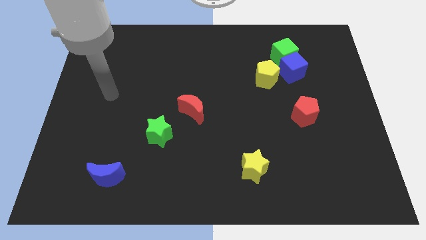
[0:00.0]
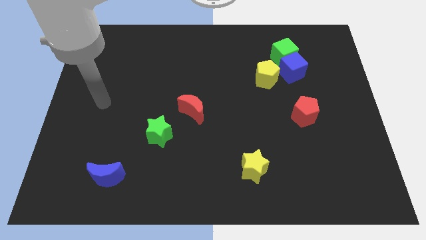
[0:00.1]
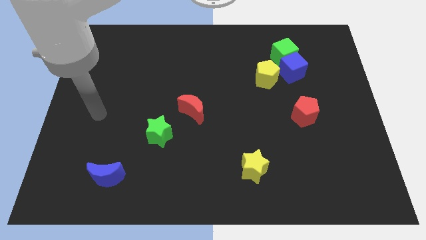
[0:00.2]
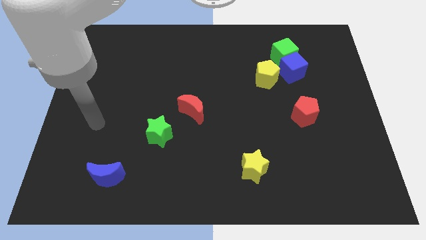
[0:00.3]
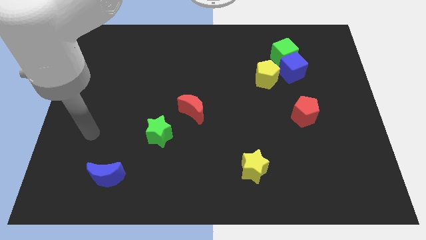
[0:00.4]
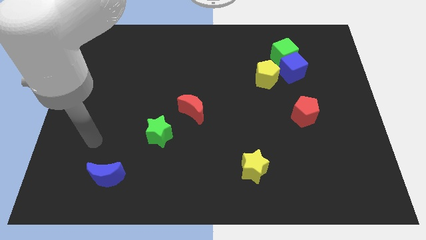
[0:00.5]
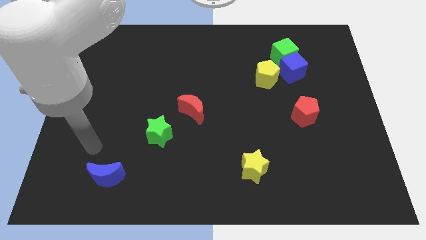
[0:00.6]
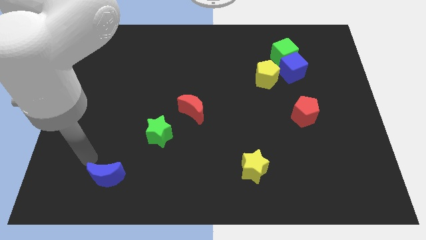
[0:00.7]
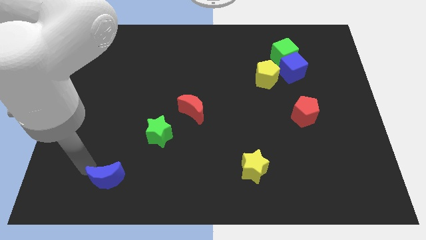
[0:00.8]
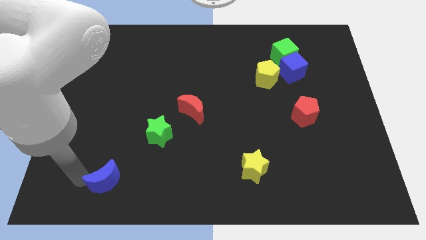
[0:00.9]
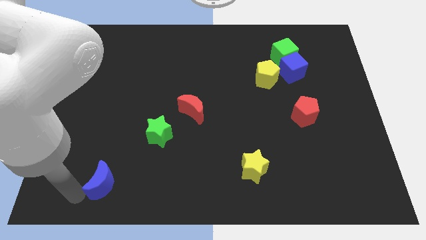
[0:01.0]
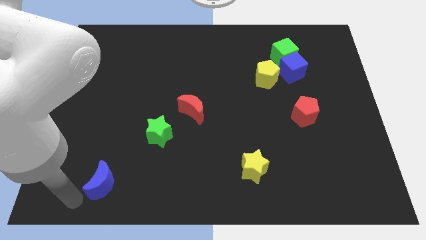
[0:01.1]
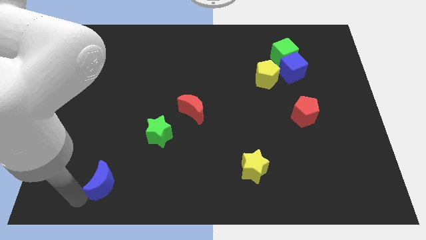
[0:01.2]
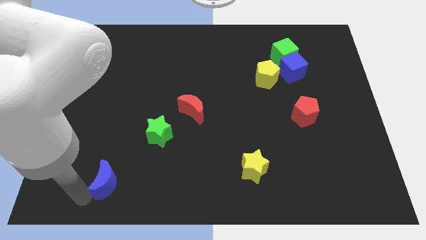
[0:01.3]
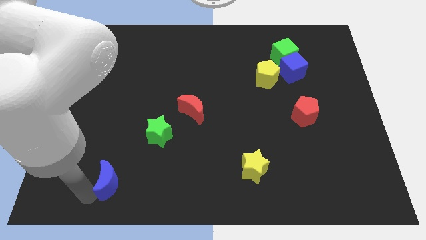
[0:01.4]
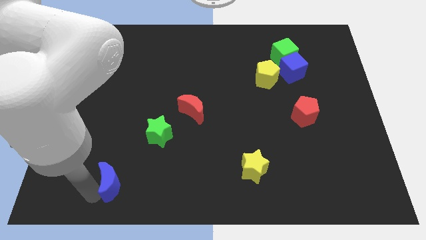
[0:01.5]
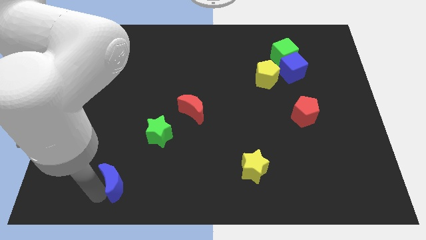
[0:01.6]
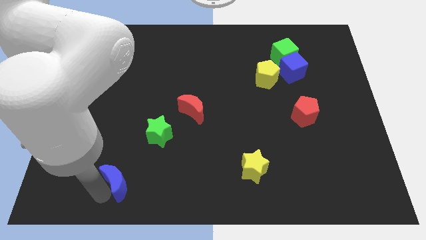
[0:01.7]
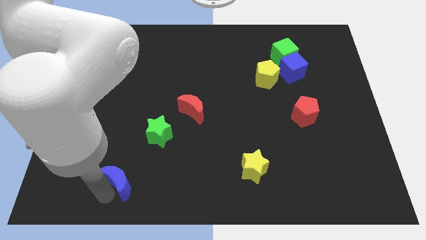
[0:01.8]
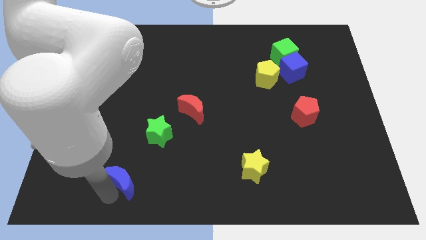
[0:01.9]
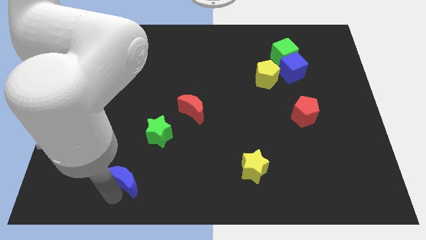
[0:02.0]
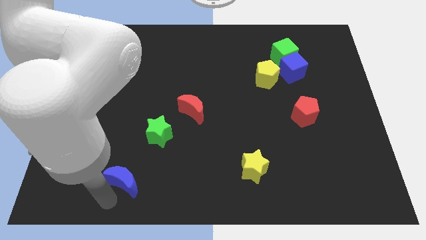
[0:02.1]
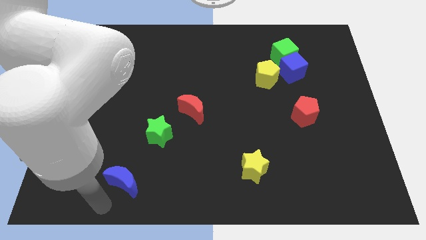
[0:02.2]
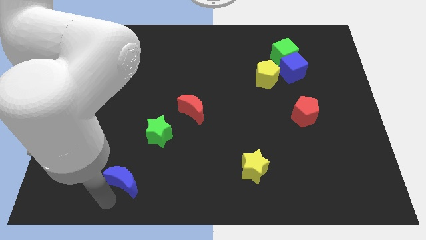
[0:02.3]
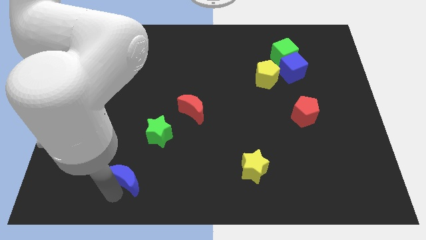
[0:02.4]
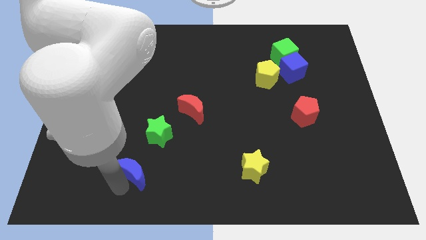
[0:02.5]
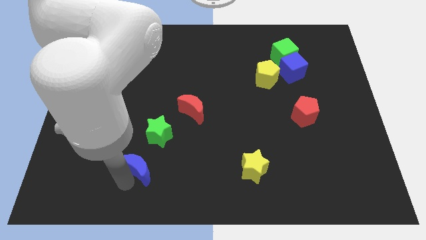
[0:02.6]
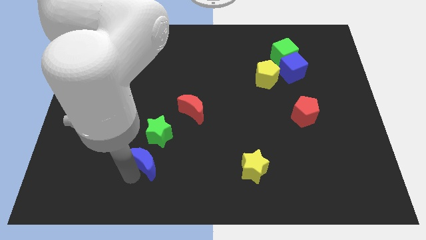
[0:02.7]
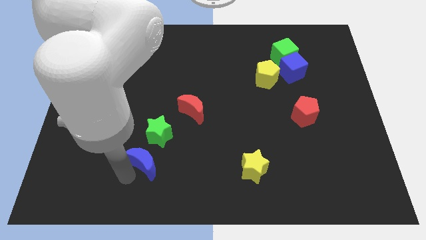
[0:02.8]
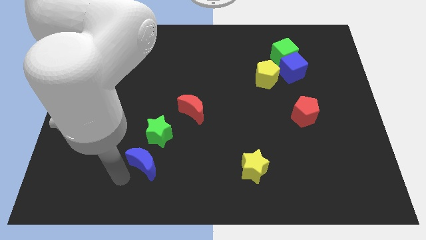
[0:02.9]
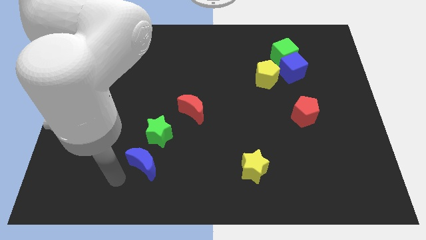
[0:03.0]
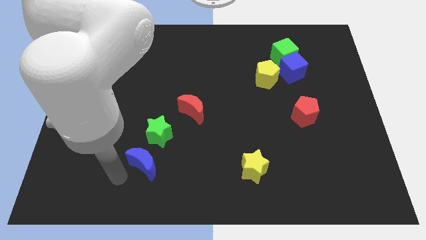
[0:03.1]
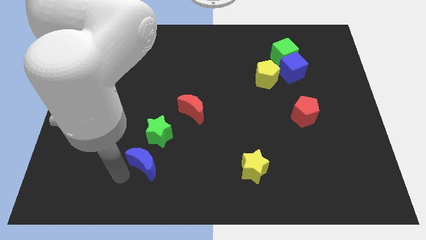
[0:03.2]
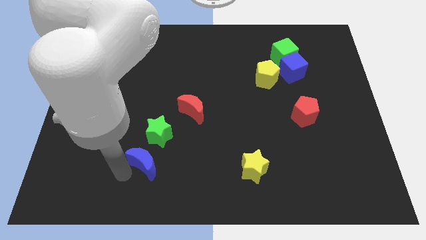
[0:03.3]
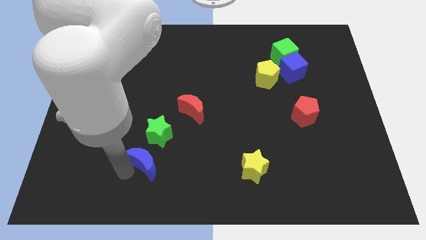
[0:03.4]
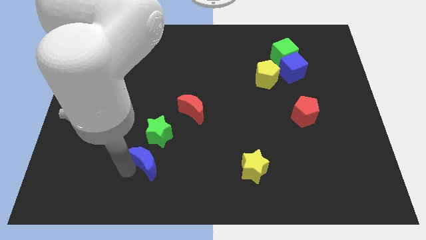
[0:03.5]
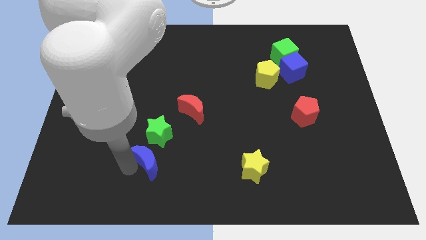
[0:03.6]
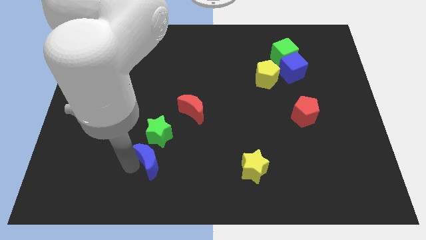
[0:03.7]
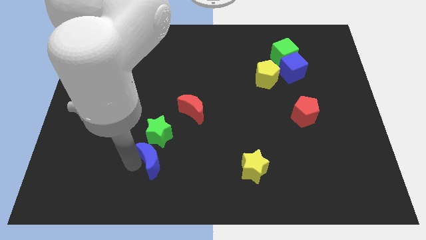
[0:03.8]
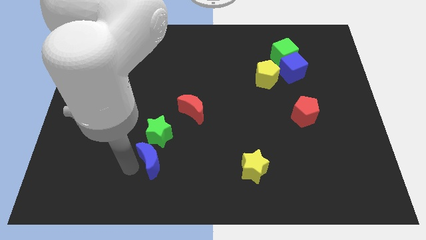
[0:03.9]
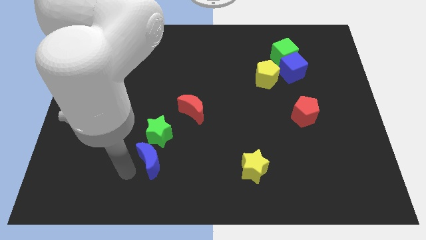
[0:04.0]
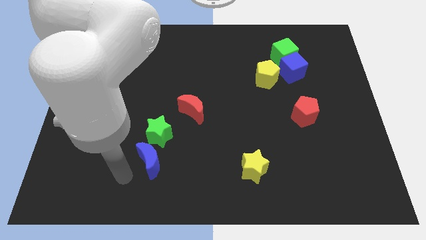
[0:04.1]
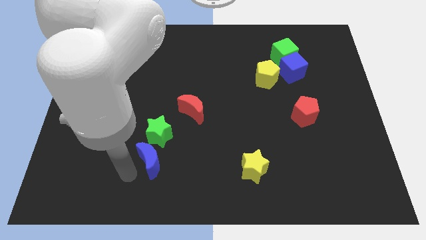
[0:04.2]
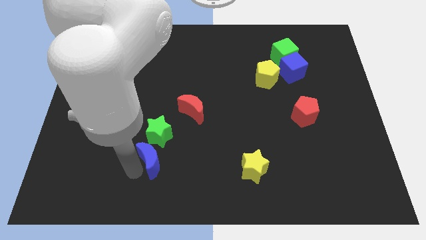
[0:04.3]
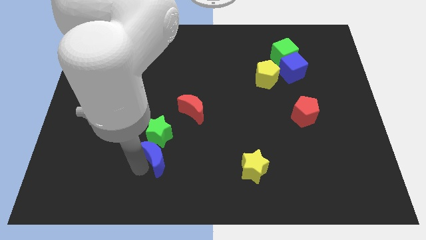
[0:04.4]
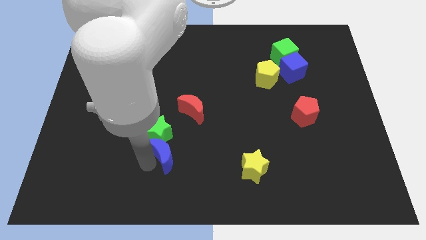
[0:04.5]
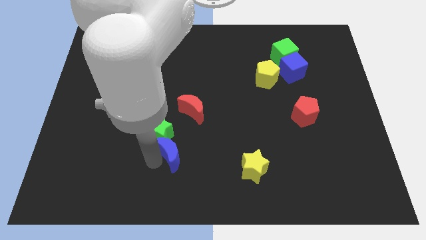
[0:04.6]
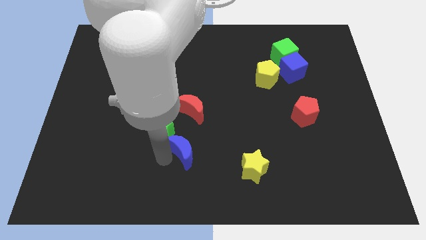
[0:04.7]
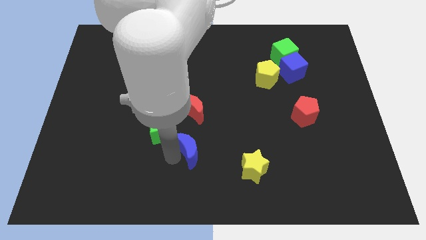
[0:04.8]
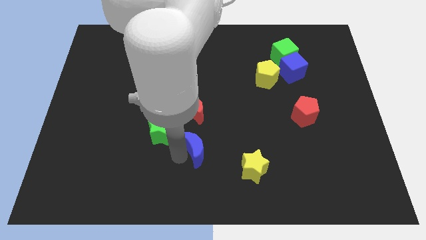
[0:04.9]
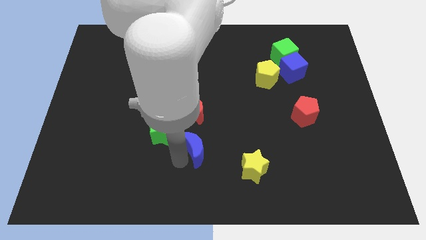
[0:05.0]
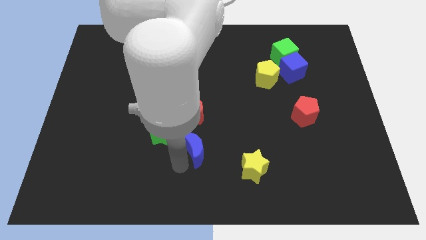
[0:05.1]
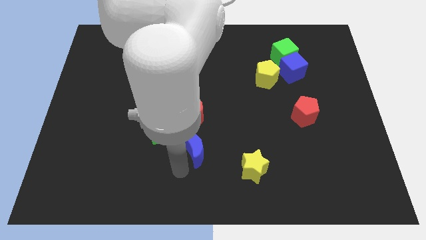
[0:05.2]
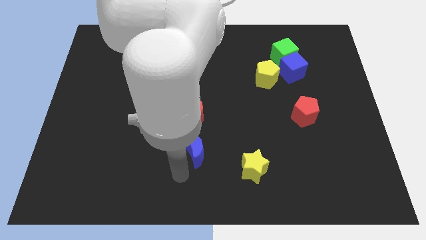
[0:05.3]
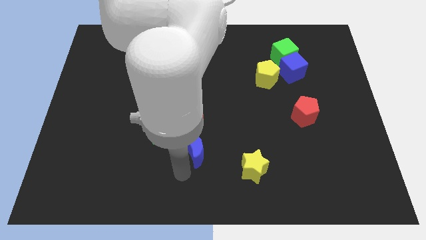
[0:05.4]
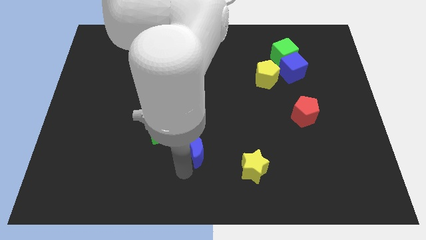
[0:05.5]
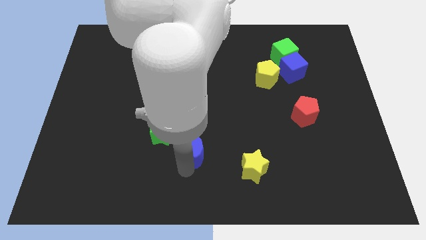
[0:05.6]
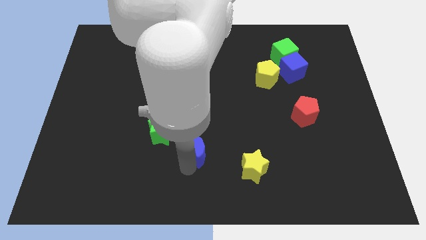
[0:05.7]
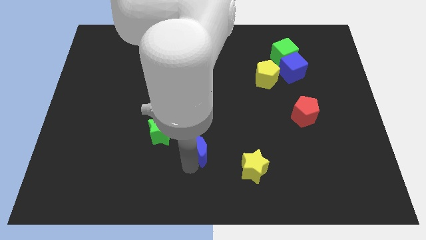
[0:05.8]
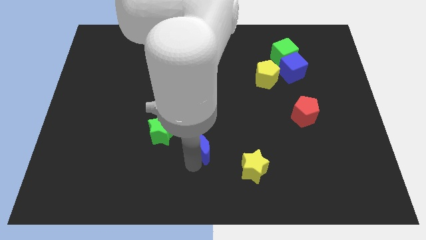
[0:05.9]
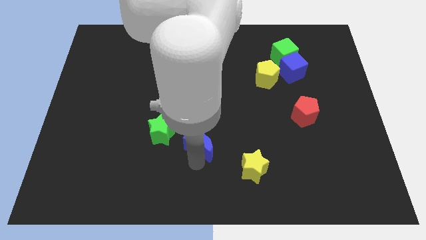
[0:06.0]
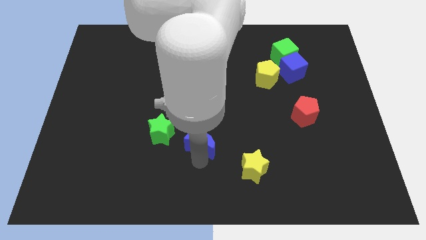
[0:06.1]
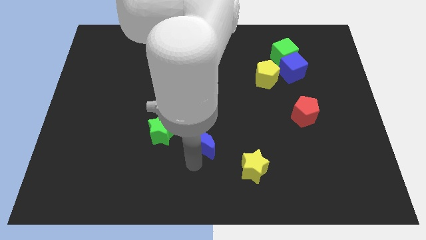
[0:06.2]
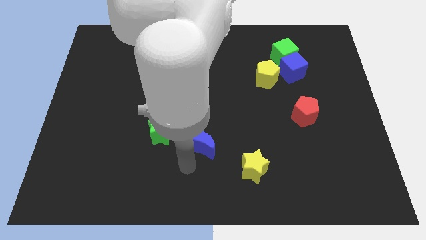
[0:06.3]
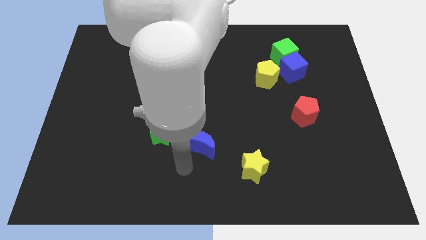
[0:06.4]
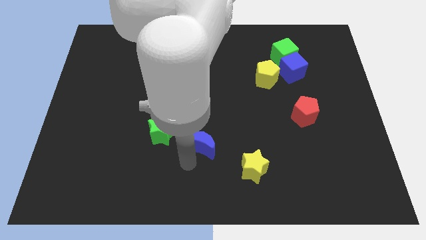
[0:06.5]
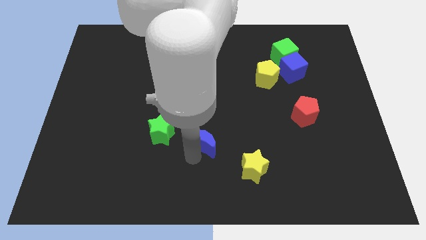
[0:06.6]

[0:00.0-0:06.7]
put the blue moon to the bottom right side of the red moon
